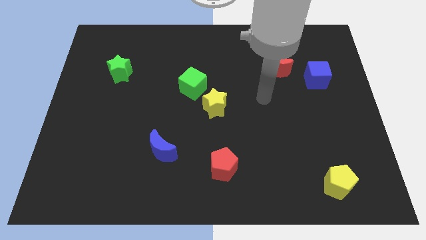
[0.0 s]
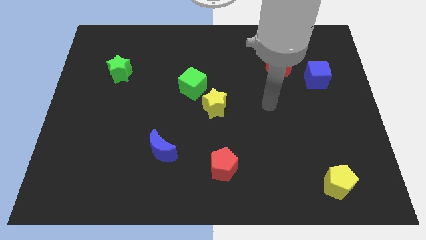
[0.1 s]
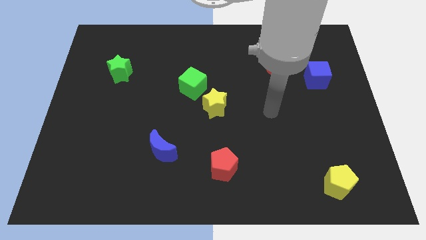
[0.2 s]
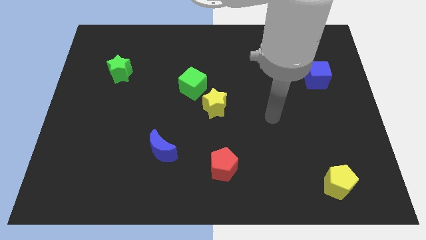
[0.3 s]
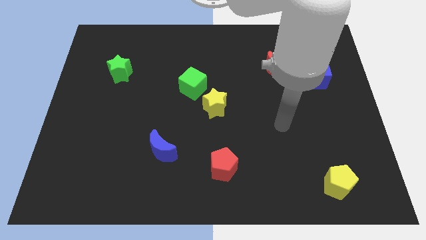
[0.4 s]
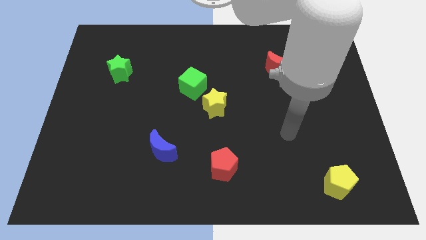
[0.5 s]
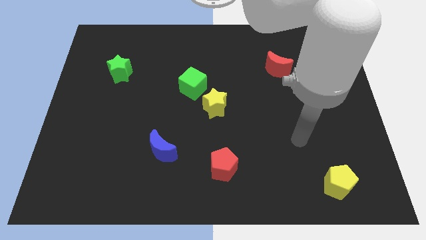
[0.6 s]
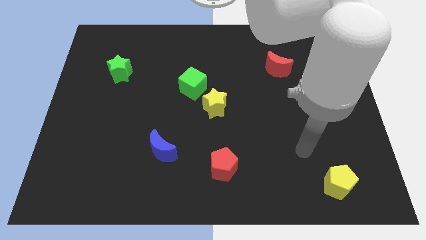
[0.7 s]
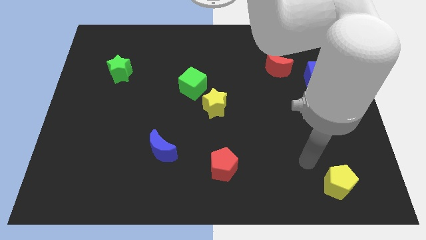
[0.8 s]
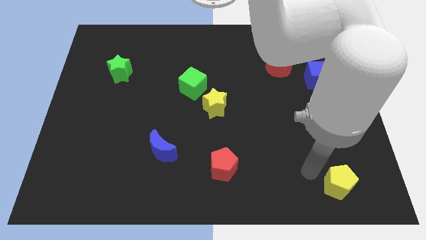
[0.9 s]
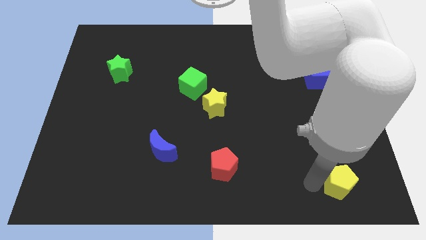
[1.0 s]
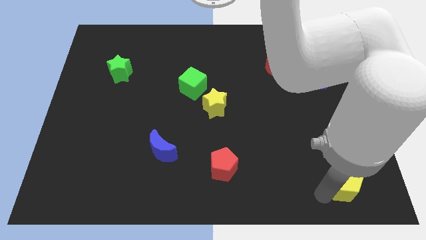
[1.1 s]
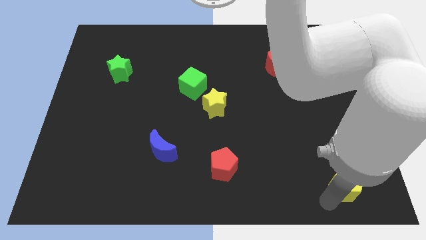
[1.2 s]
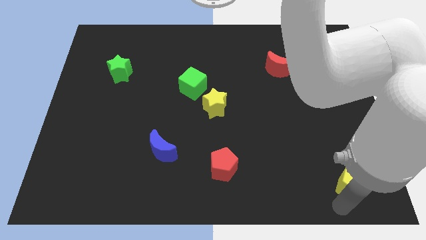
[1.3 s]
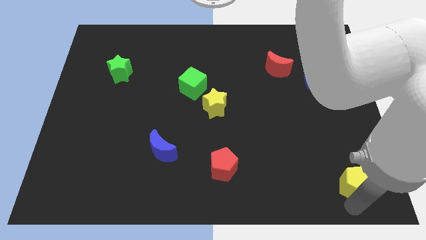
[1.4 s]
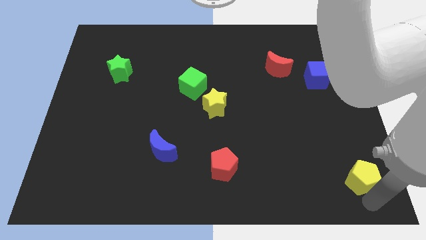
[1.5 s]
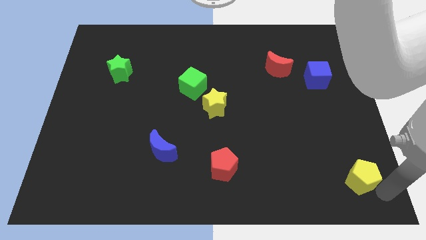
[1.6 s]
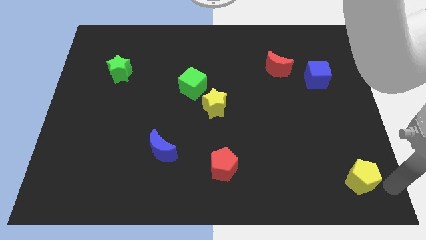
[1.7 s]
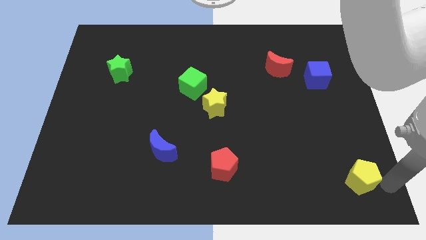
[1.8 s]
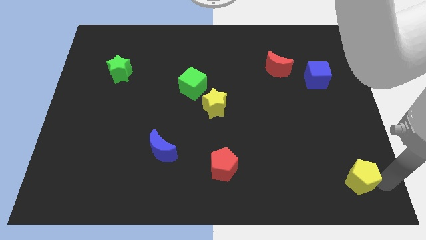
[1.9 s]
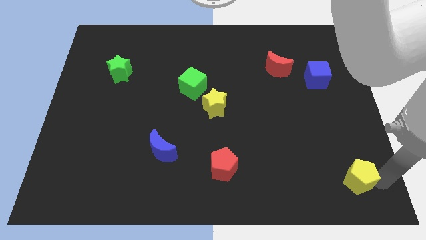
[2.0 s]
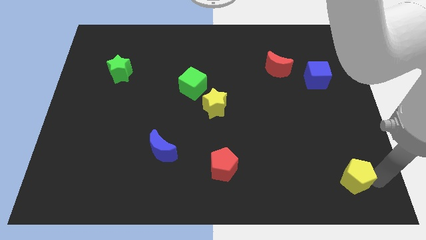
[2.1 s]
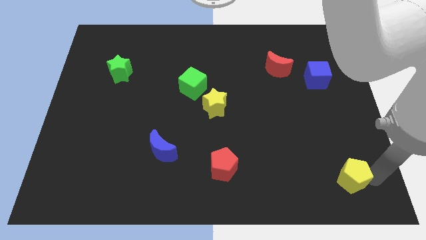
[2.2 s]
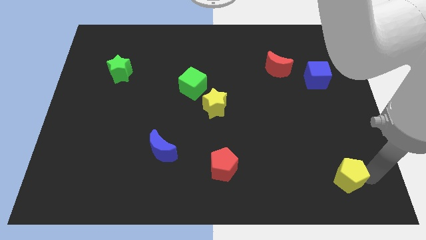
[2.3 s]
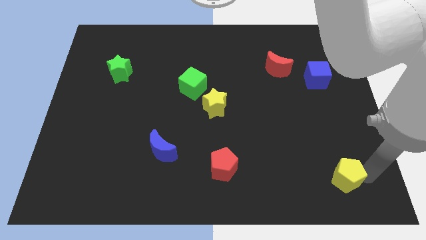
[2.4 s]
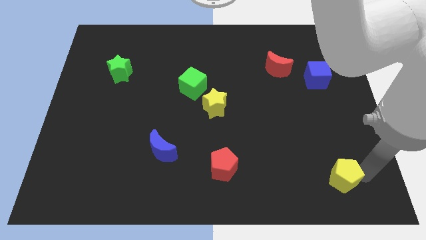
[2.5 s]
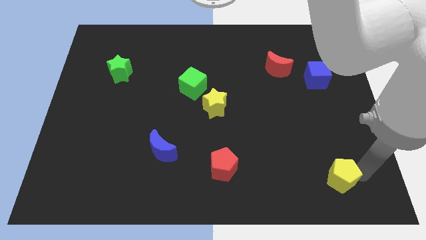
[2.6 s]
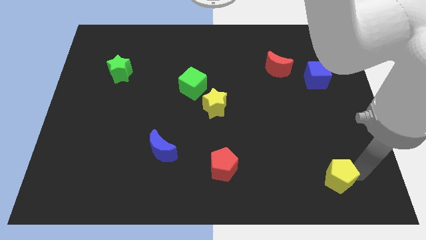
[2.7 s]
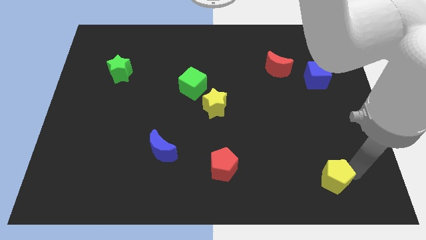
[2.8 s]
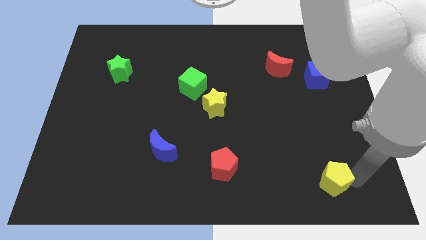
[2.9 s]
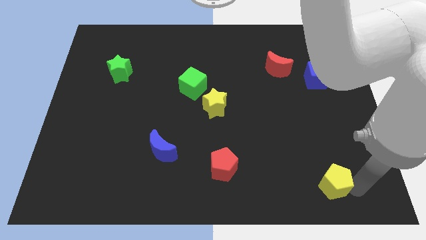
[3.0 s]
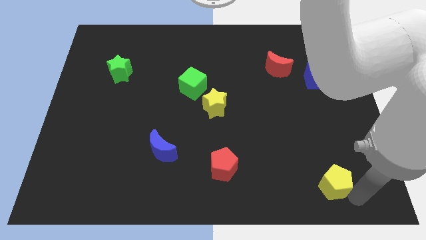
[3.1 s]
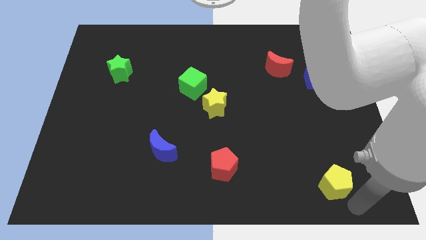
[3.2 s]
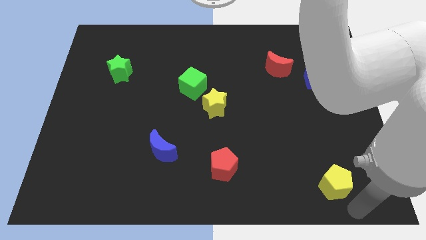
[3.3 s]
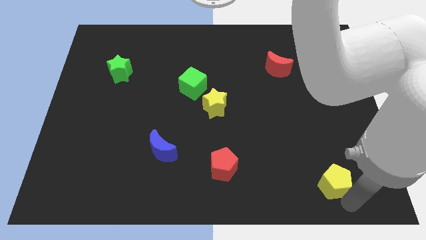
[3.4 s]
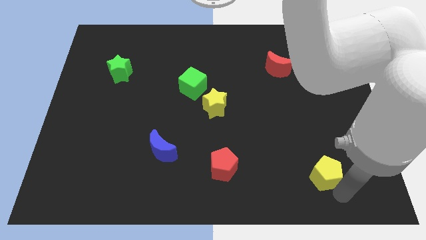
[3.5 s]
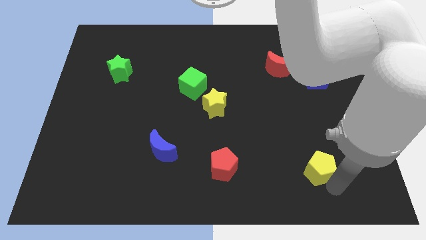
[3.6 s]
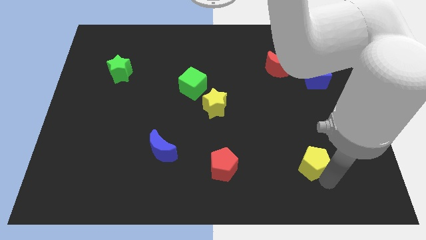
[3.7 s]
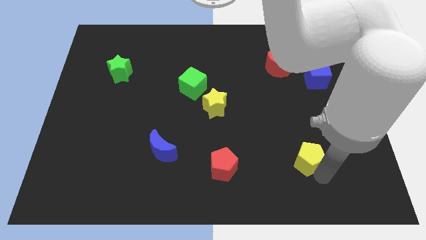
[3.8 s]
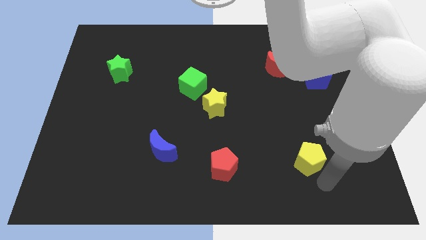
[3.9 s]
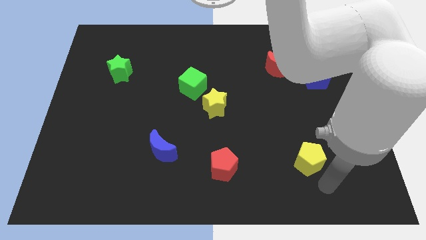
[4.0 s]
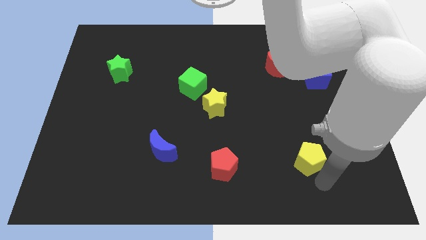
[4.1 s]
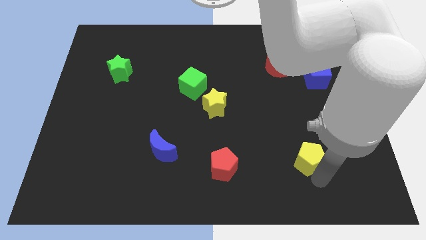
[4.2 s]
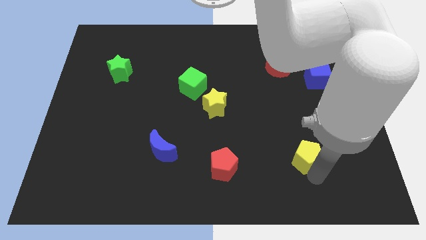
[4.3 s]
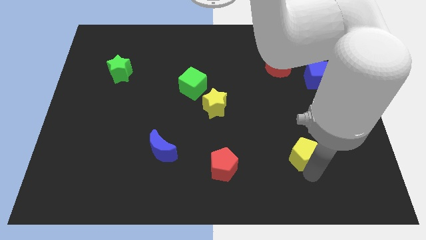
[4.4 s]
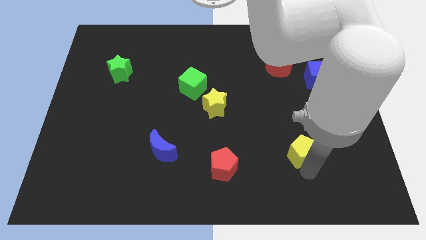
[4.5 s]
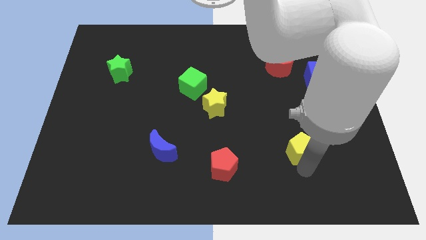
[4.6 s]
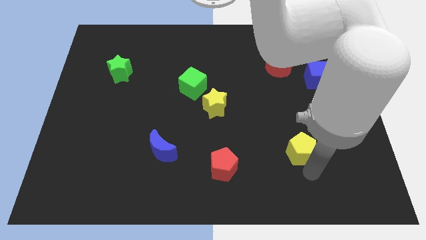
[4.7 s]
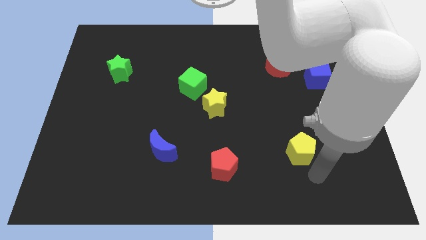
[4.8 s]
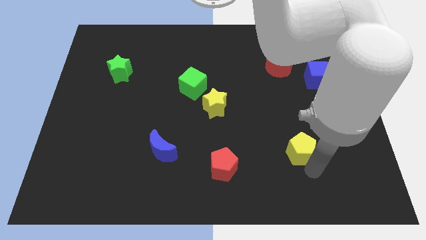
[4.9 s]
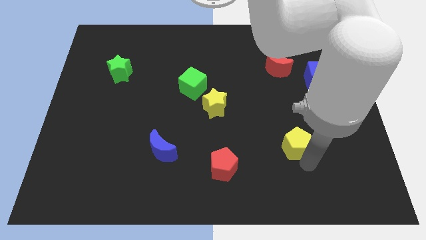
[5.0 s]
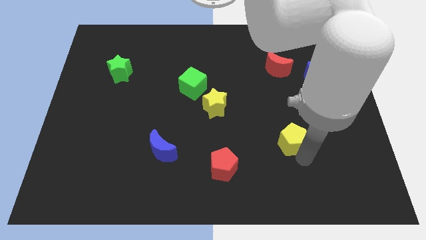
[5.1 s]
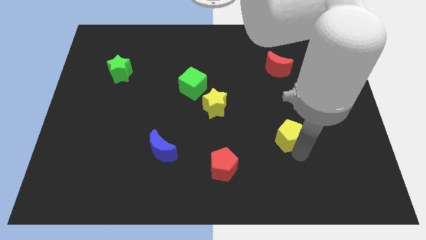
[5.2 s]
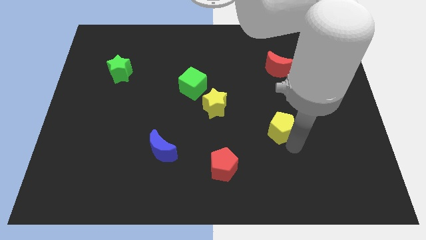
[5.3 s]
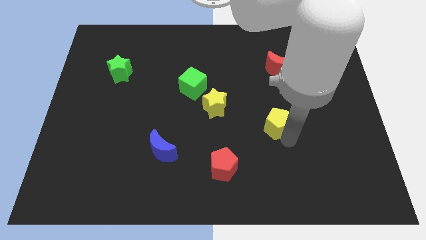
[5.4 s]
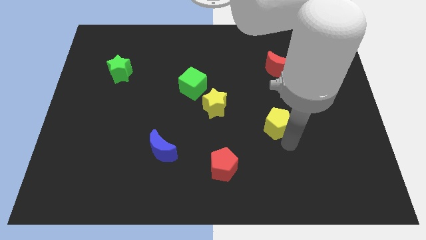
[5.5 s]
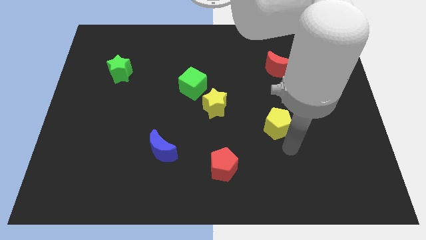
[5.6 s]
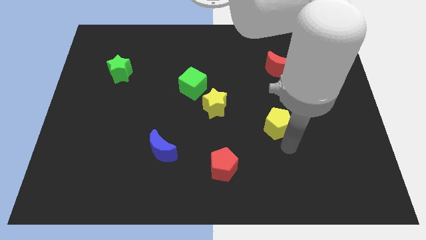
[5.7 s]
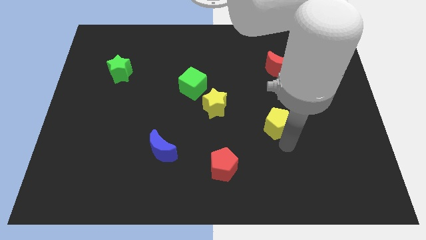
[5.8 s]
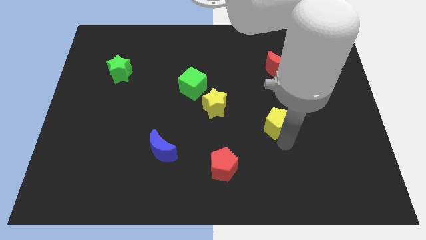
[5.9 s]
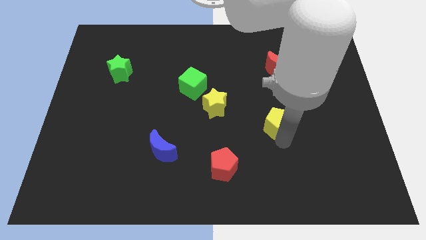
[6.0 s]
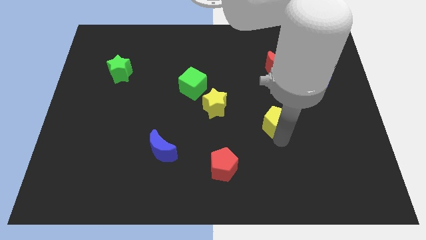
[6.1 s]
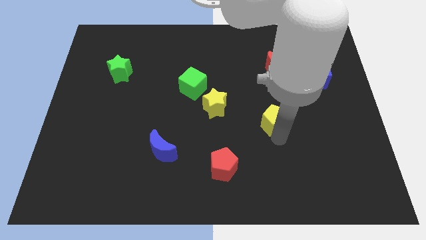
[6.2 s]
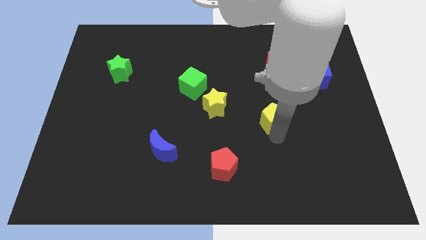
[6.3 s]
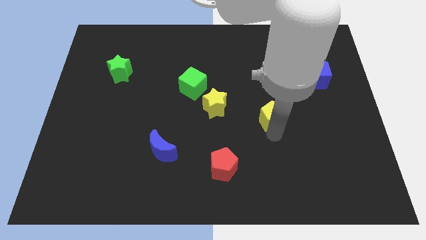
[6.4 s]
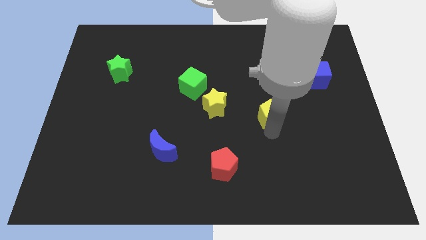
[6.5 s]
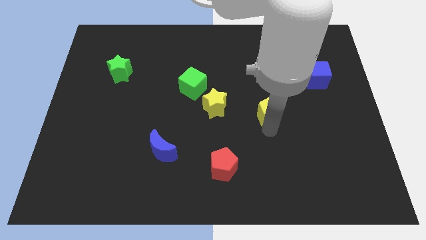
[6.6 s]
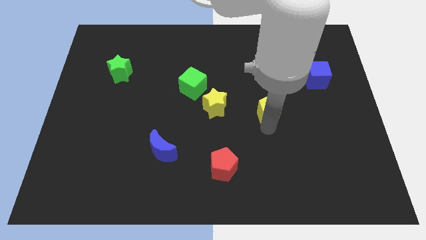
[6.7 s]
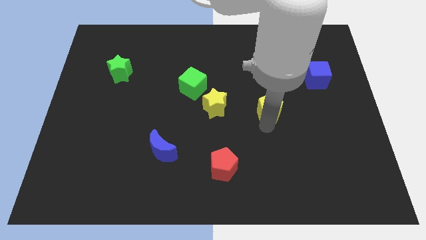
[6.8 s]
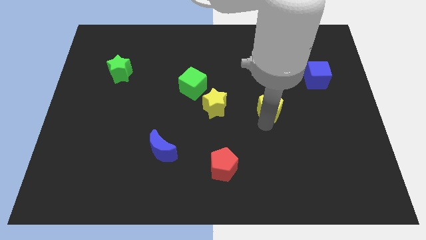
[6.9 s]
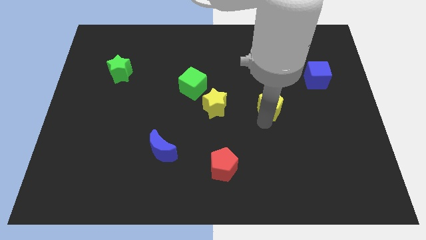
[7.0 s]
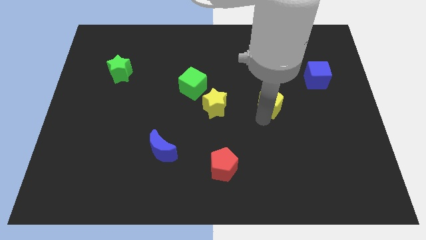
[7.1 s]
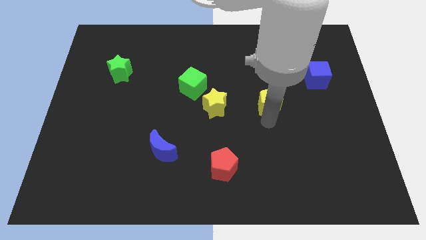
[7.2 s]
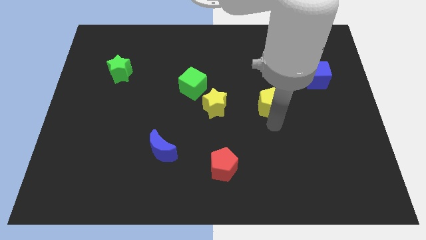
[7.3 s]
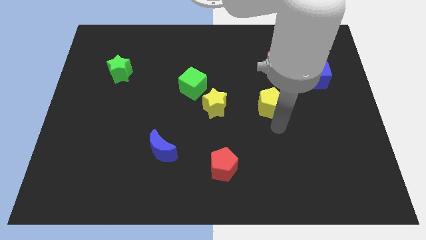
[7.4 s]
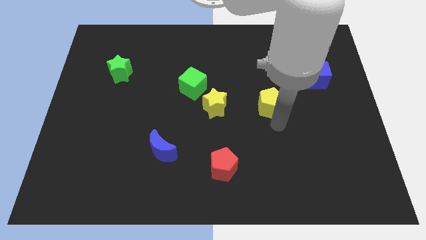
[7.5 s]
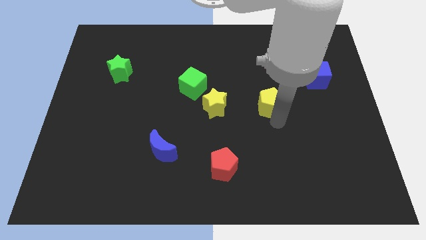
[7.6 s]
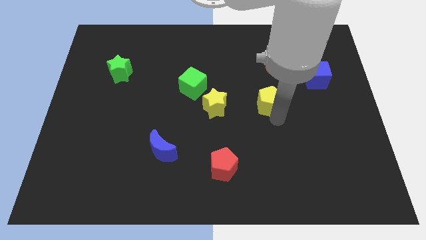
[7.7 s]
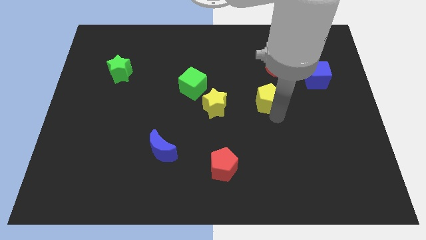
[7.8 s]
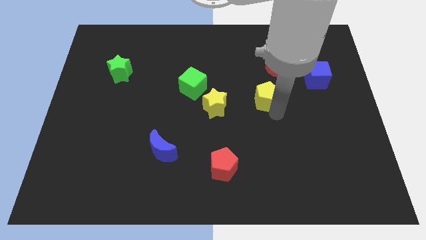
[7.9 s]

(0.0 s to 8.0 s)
put the yellow pentagon to the bottom left side of the red moon
